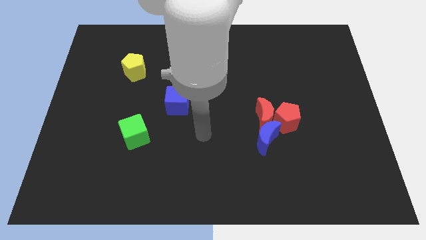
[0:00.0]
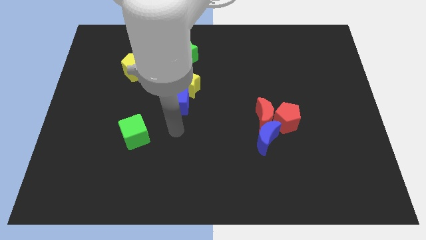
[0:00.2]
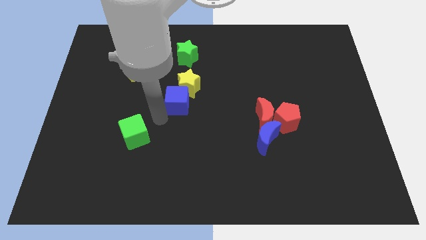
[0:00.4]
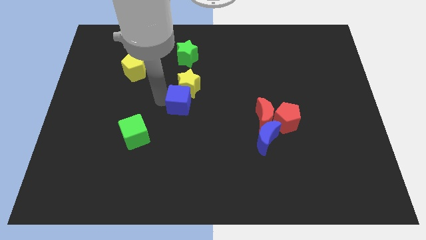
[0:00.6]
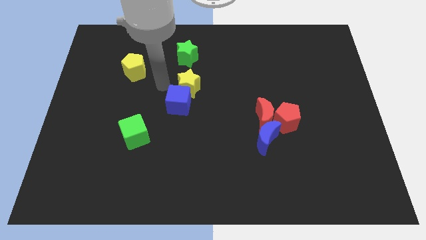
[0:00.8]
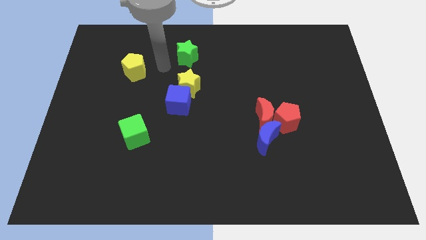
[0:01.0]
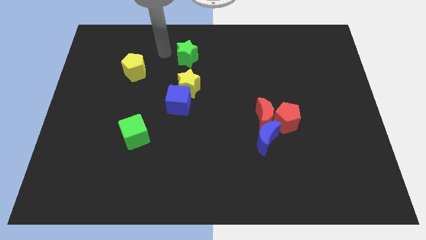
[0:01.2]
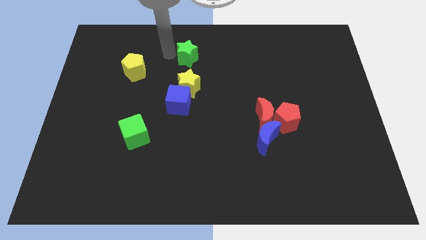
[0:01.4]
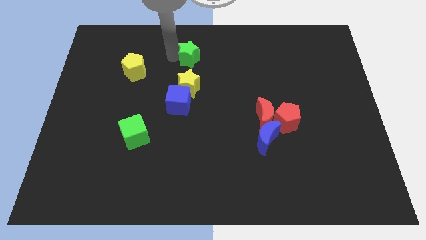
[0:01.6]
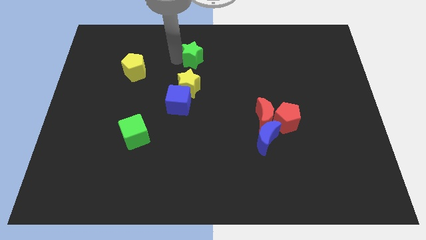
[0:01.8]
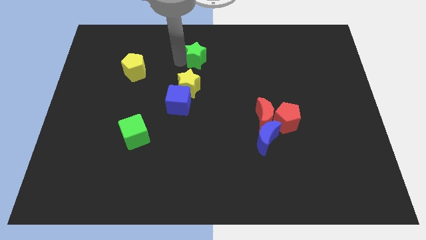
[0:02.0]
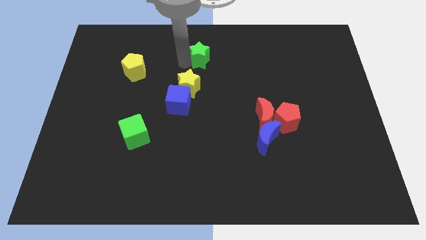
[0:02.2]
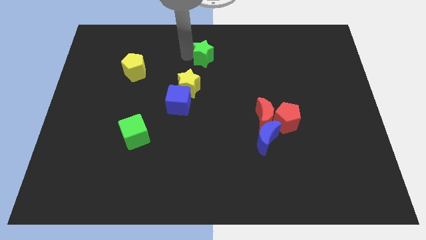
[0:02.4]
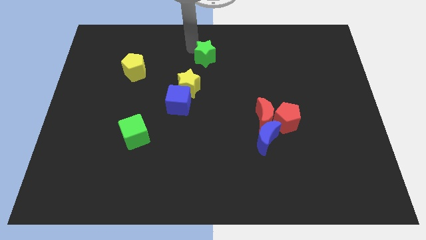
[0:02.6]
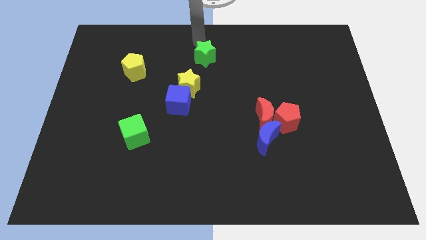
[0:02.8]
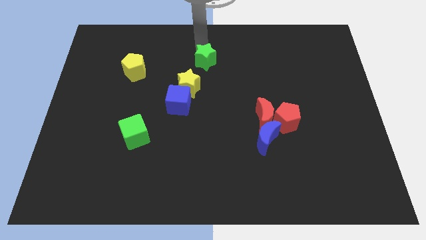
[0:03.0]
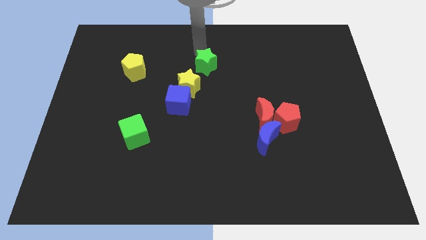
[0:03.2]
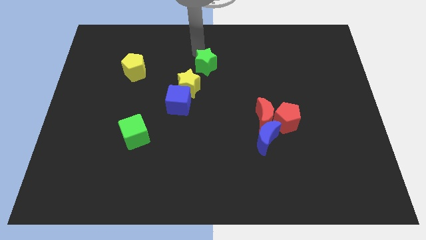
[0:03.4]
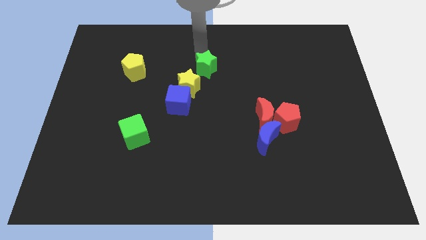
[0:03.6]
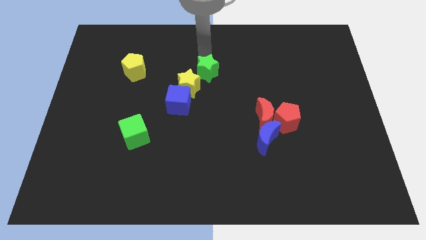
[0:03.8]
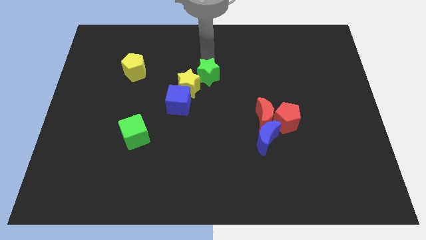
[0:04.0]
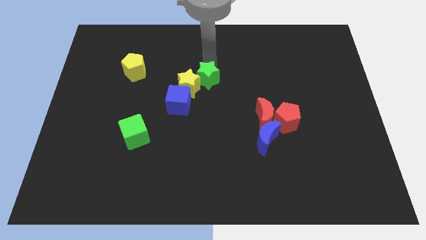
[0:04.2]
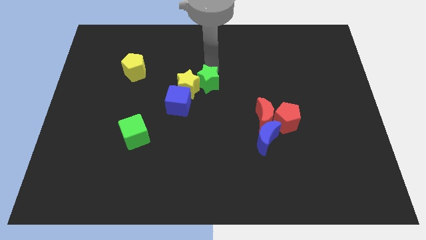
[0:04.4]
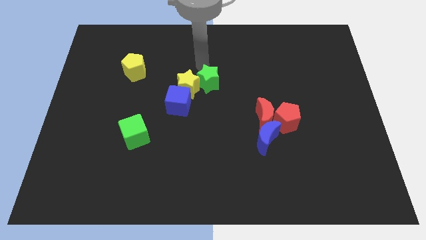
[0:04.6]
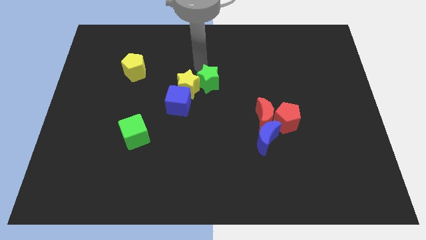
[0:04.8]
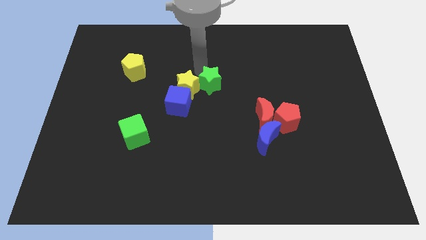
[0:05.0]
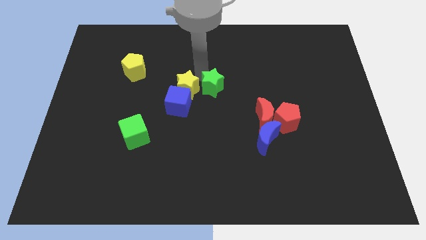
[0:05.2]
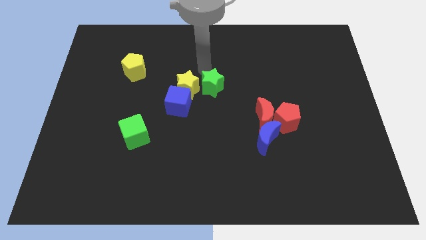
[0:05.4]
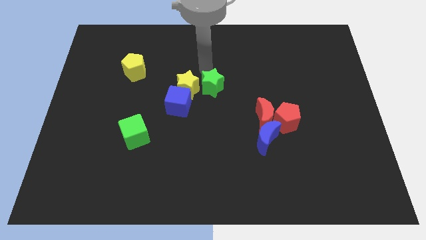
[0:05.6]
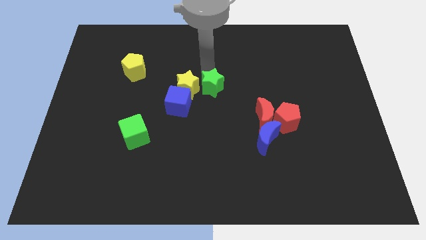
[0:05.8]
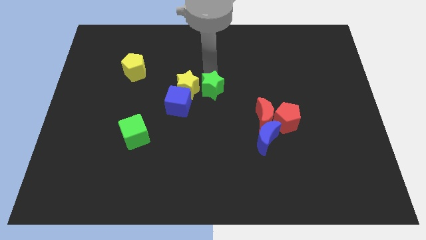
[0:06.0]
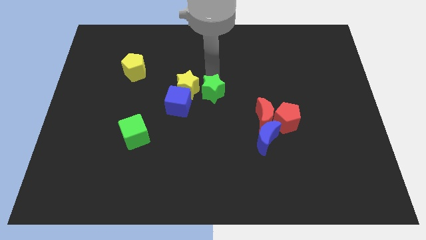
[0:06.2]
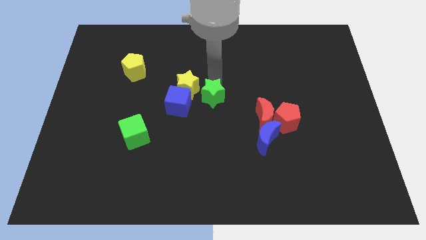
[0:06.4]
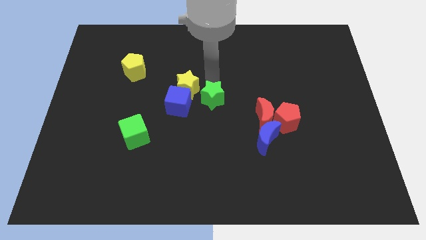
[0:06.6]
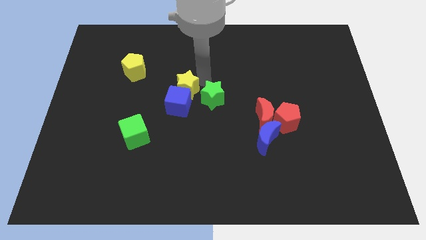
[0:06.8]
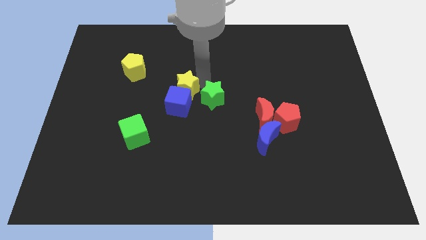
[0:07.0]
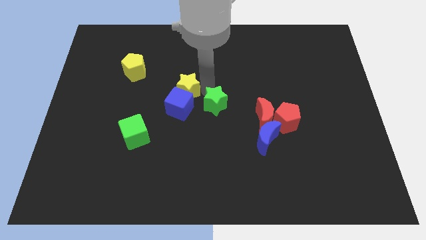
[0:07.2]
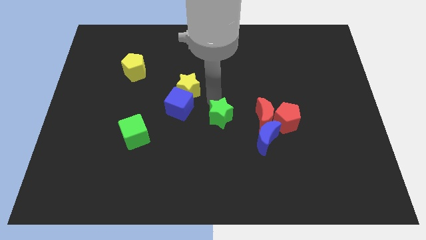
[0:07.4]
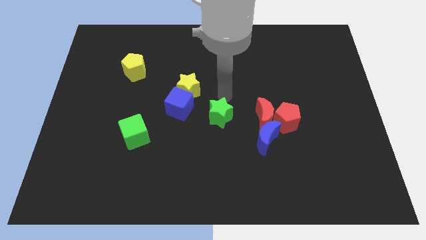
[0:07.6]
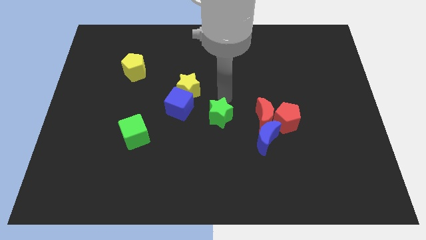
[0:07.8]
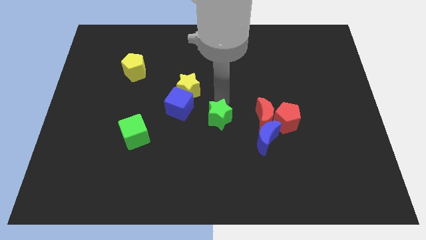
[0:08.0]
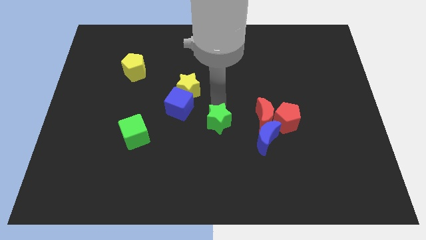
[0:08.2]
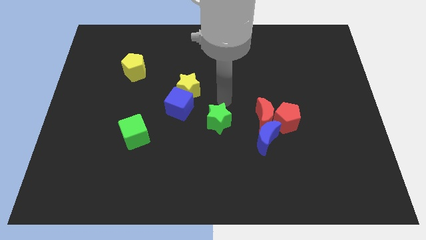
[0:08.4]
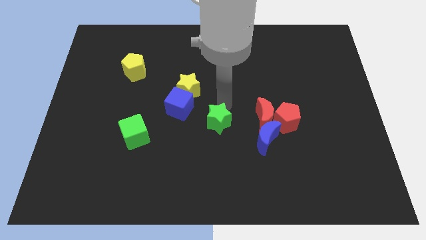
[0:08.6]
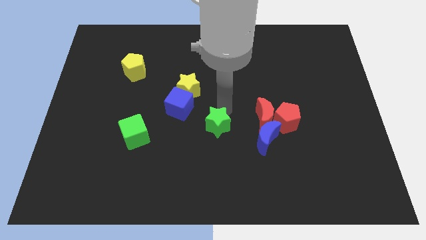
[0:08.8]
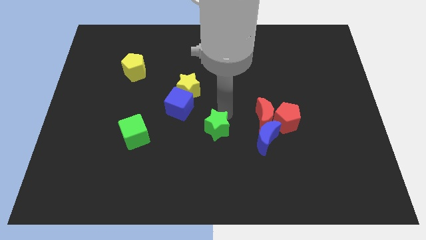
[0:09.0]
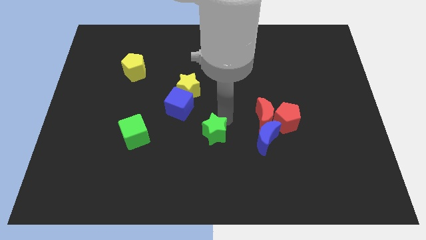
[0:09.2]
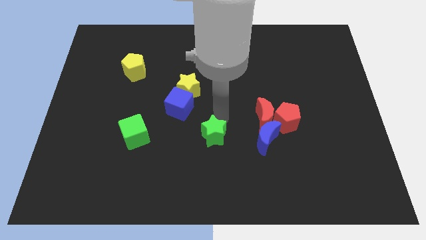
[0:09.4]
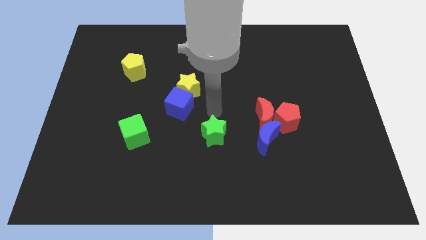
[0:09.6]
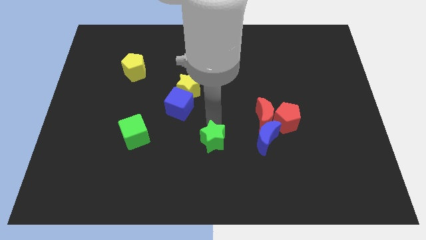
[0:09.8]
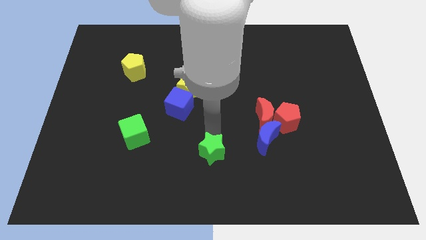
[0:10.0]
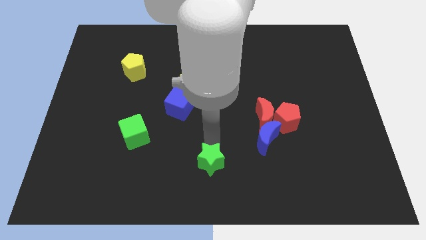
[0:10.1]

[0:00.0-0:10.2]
push the green star to the bottom
